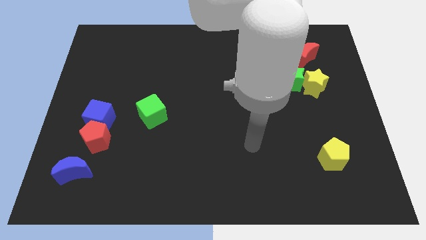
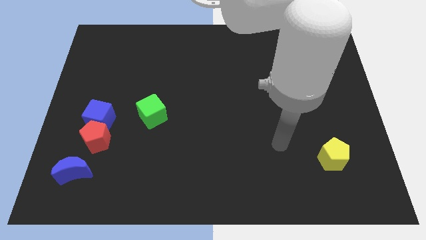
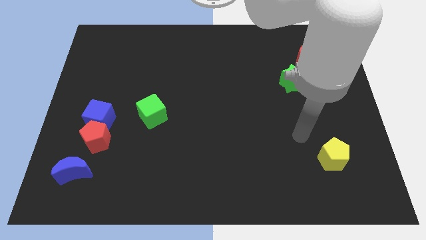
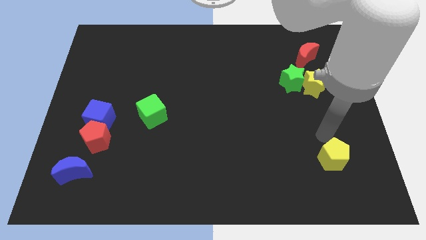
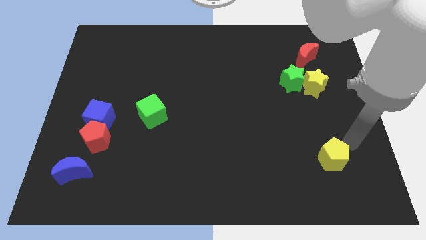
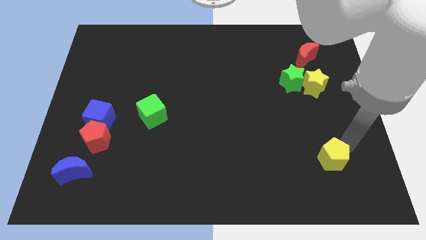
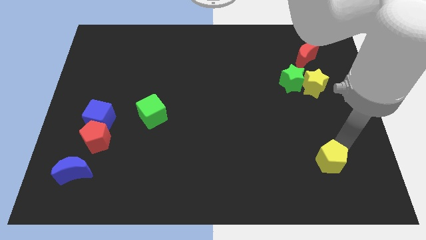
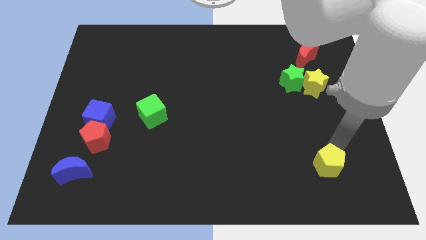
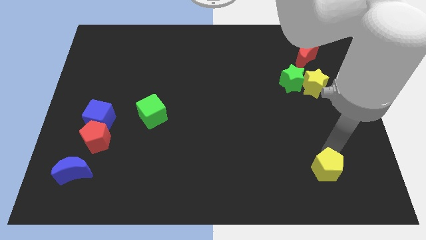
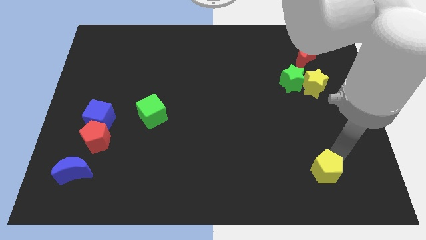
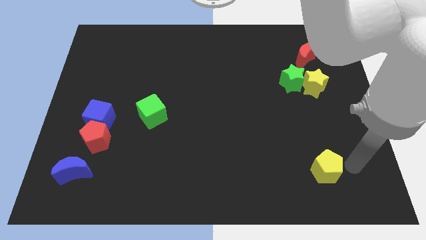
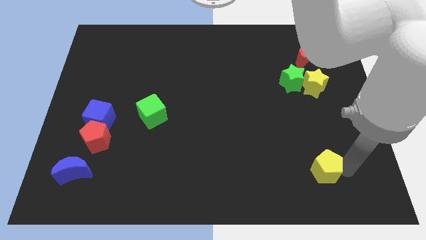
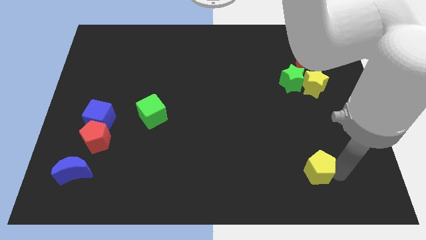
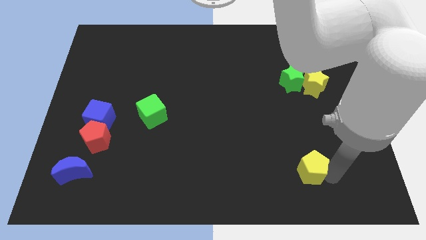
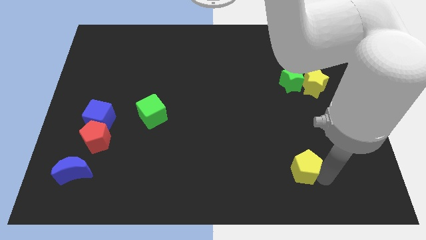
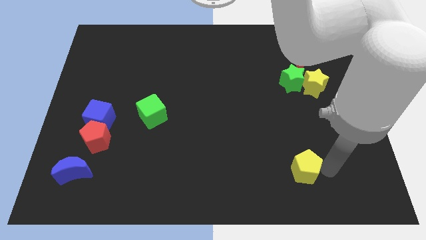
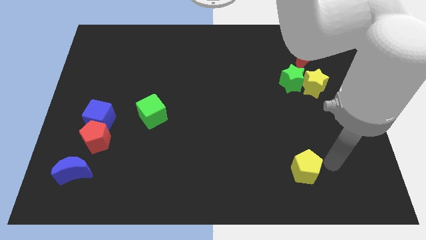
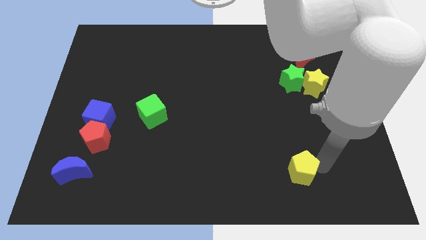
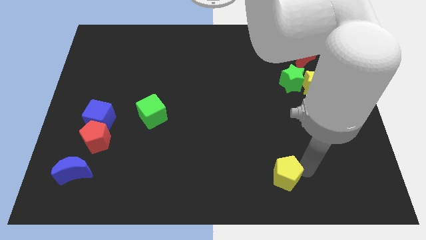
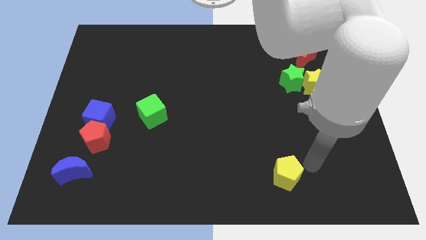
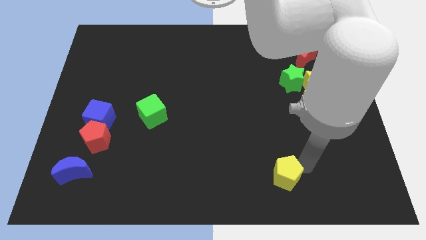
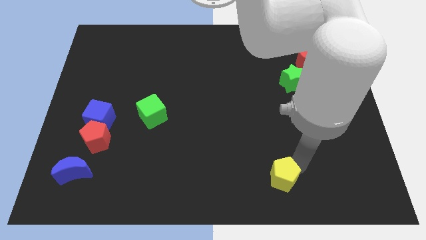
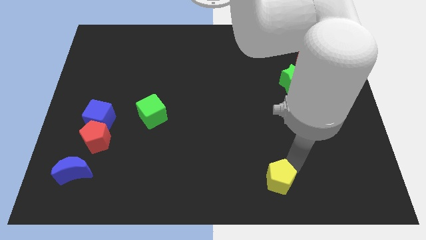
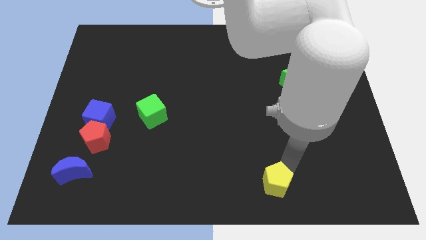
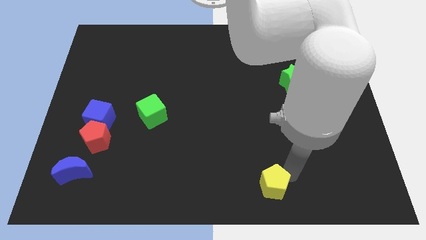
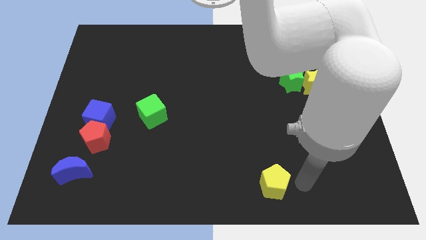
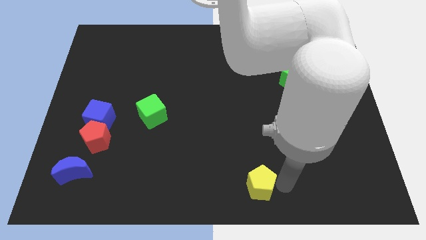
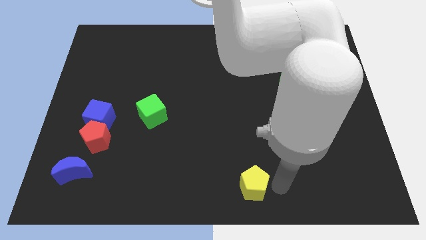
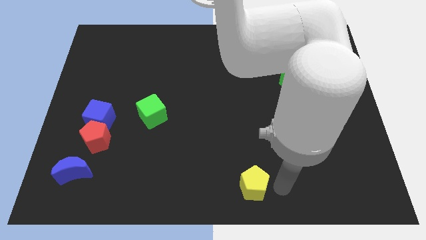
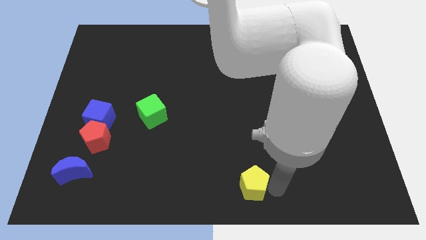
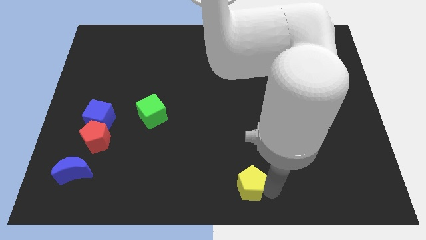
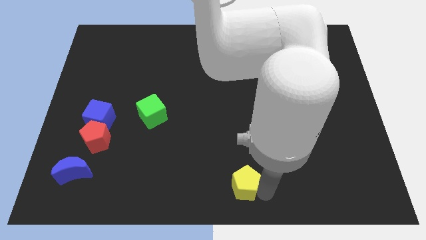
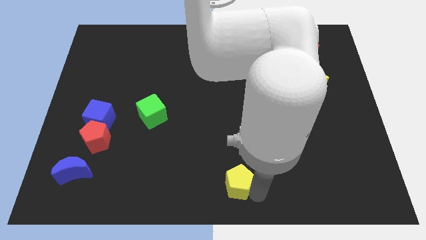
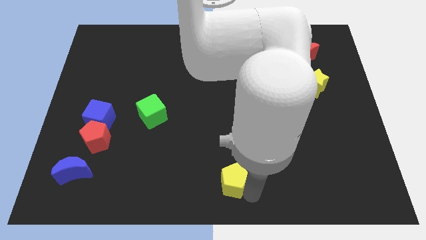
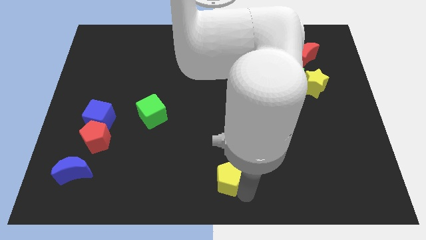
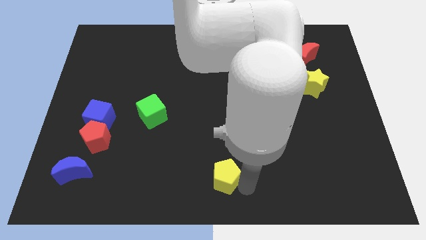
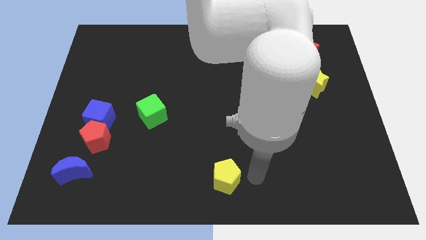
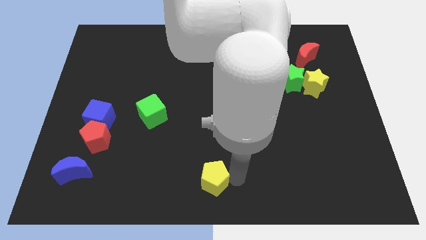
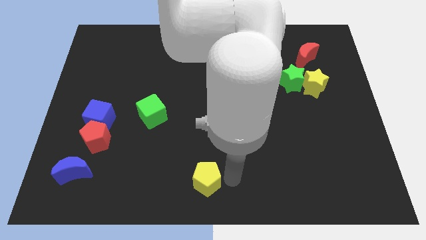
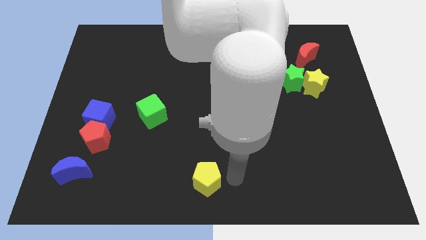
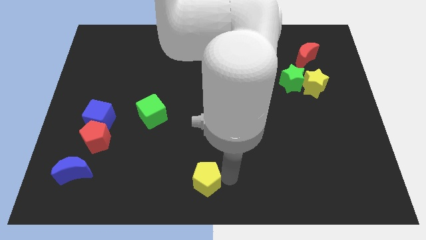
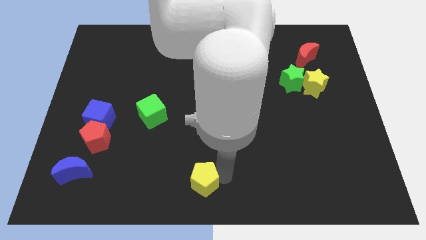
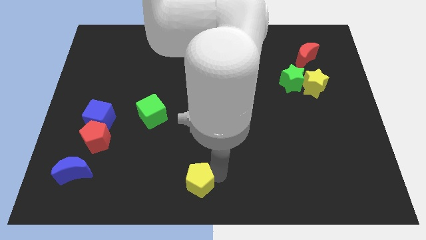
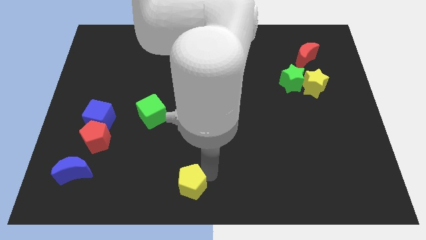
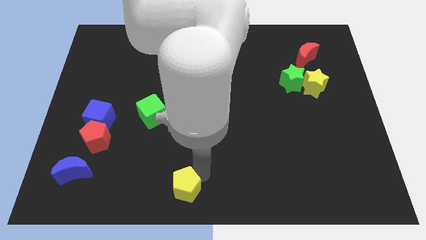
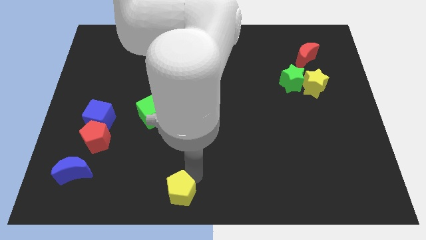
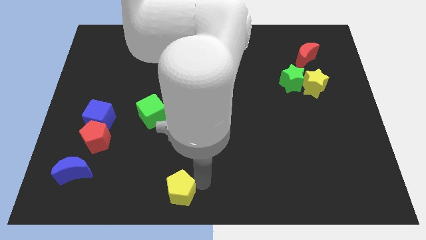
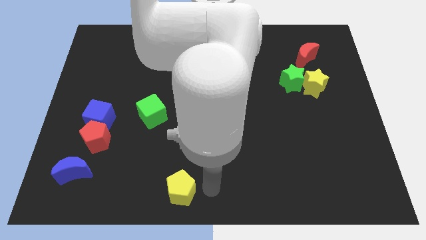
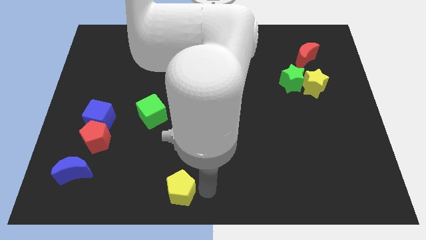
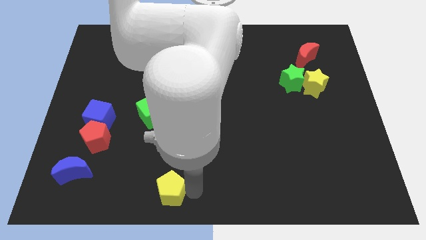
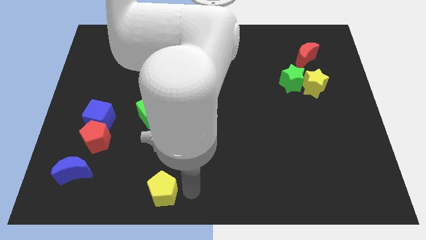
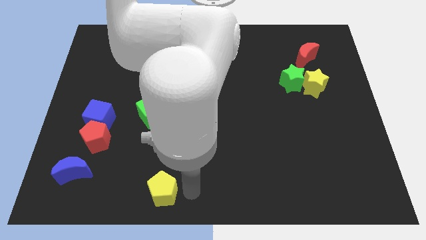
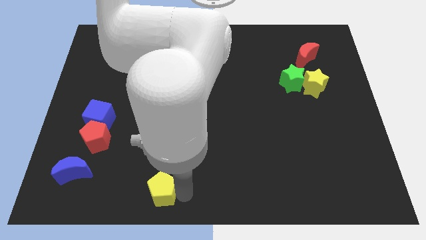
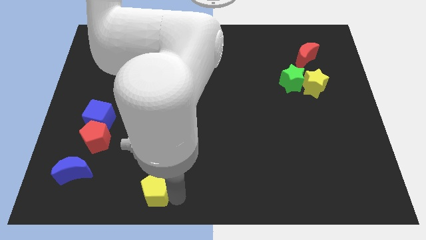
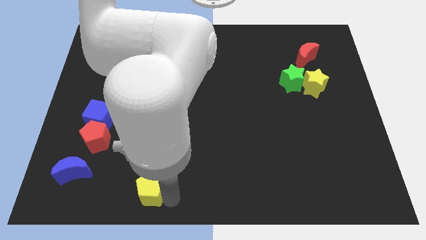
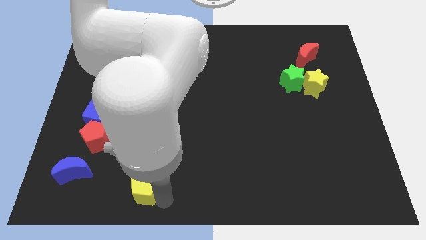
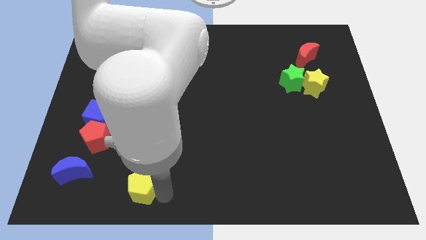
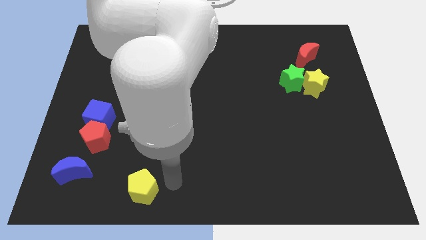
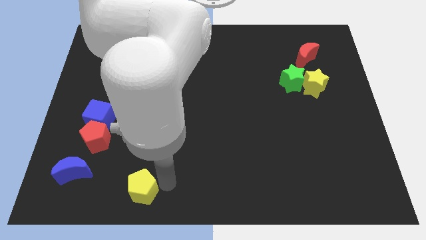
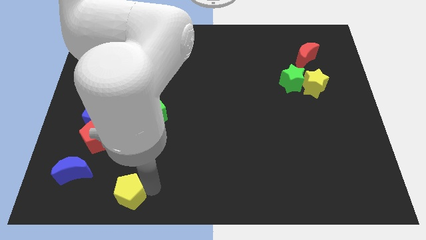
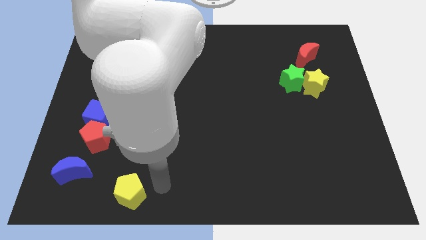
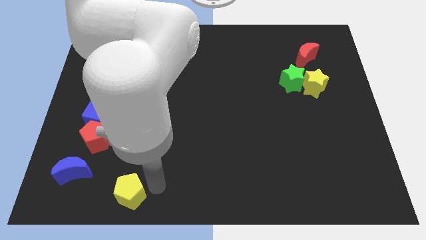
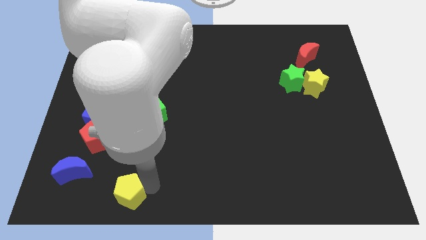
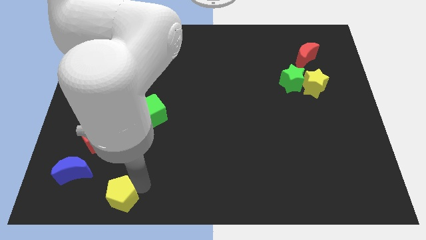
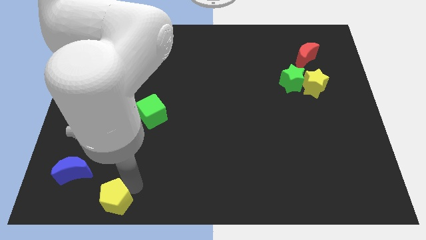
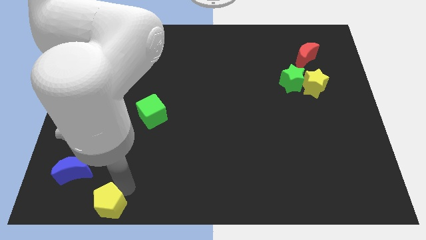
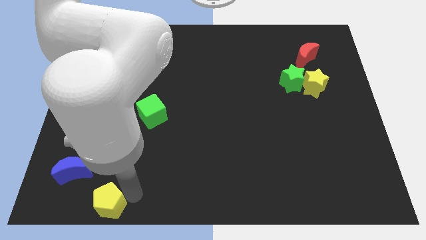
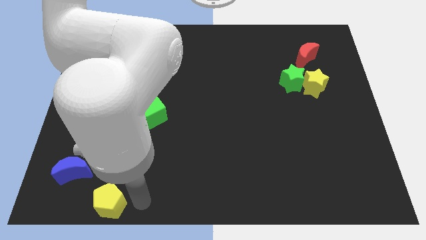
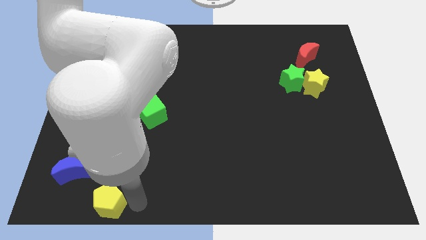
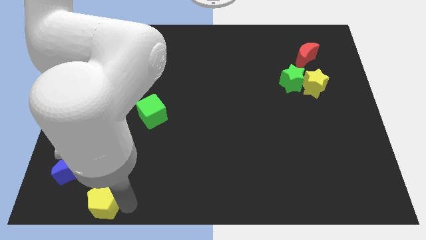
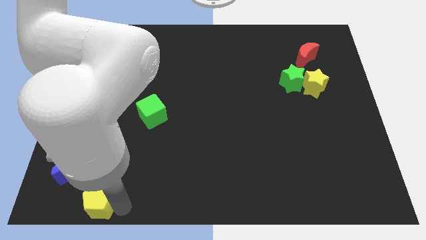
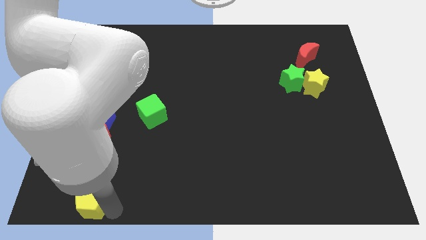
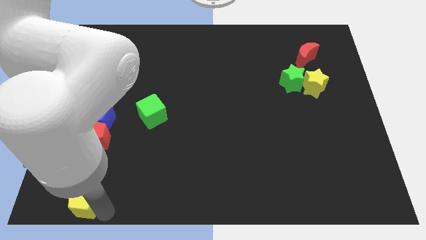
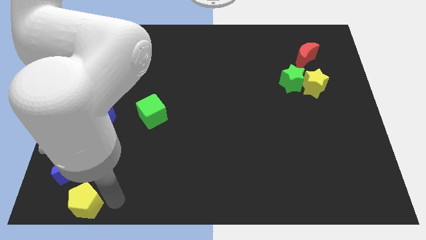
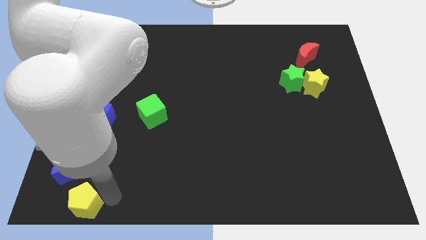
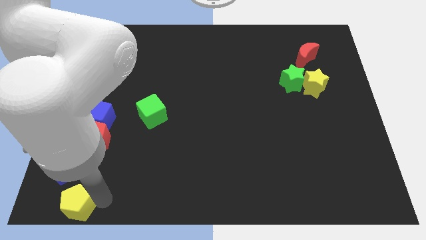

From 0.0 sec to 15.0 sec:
move the yellow pentagon to the bottom left
